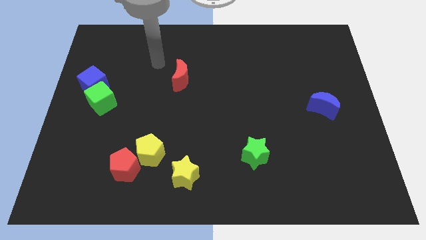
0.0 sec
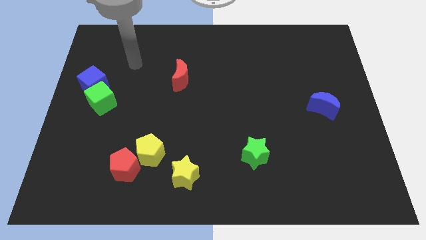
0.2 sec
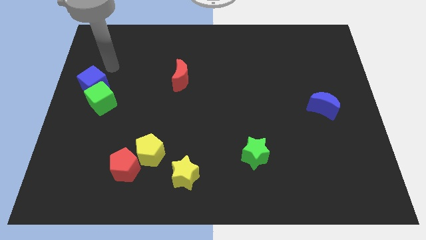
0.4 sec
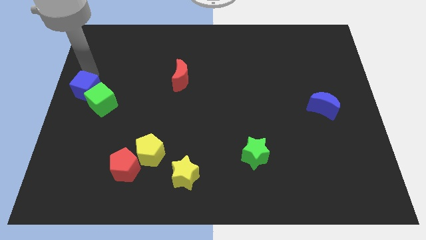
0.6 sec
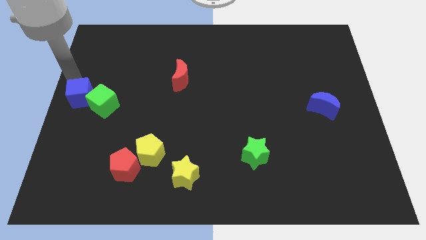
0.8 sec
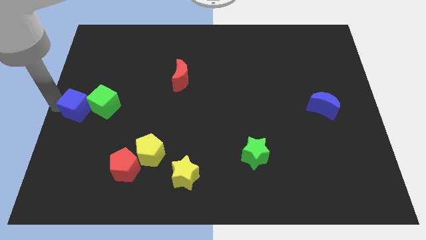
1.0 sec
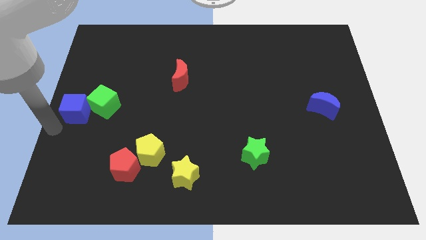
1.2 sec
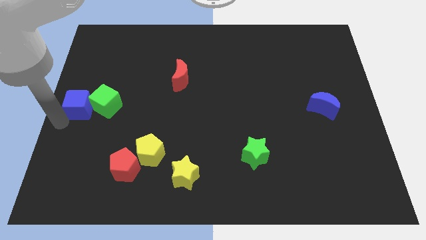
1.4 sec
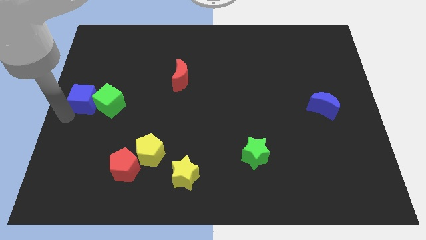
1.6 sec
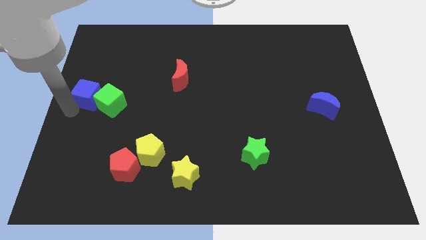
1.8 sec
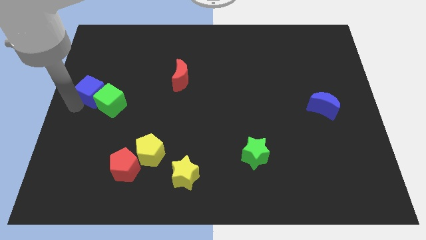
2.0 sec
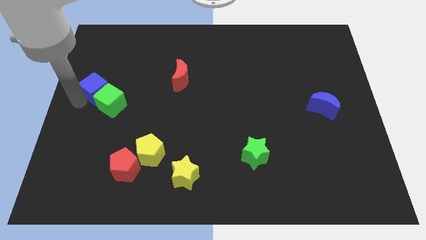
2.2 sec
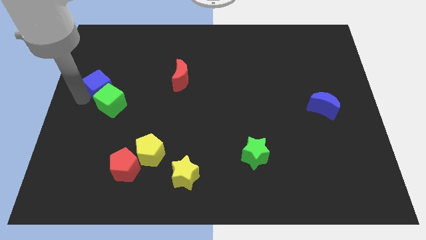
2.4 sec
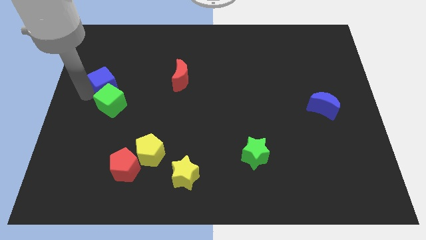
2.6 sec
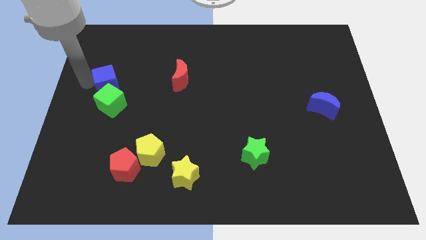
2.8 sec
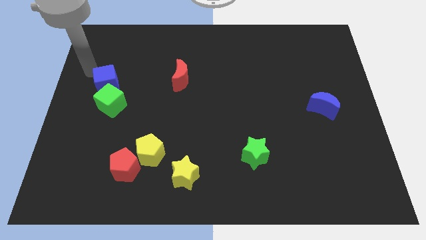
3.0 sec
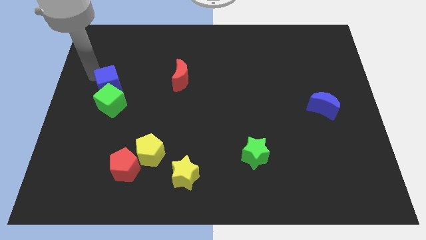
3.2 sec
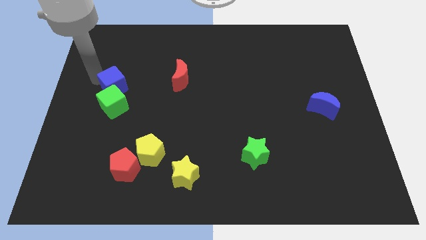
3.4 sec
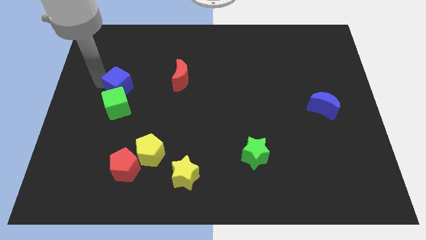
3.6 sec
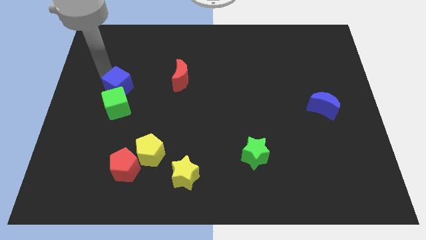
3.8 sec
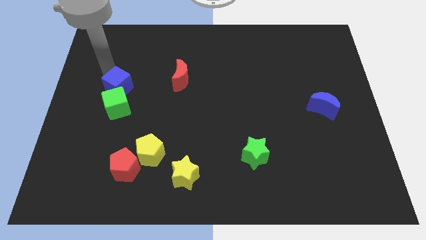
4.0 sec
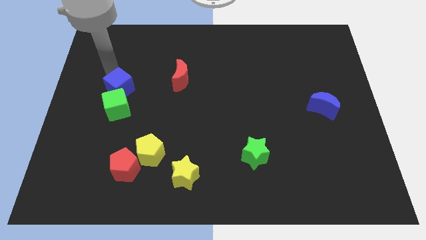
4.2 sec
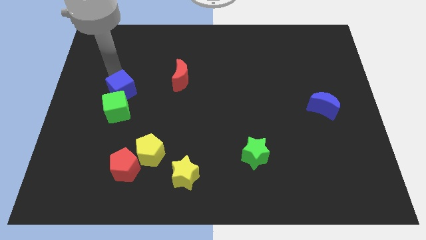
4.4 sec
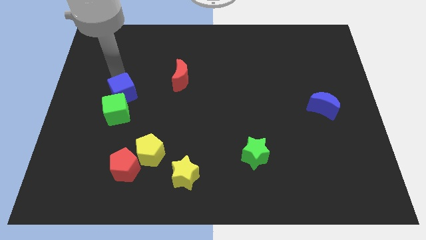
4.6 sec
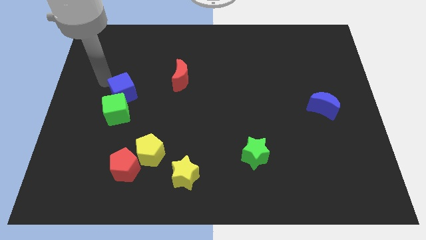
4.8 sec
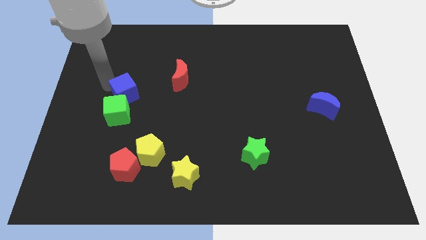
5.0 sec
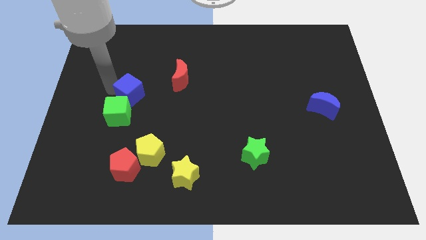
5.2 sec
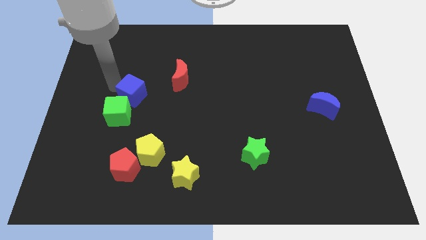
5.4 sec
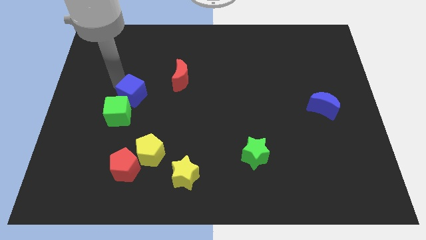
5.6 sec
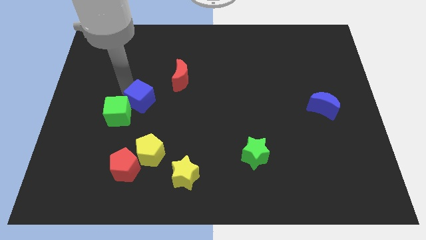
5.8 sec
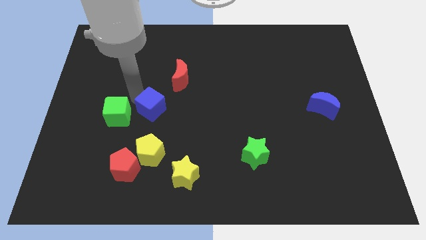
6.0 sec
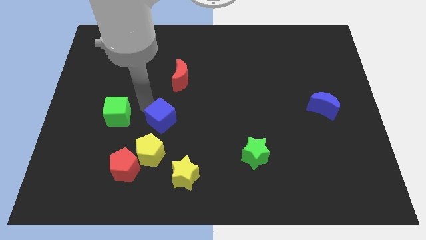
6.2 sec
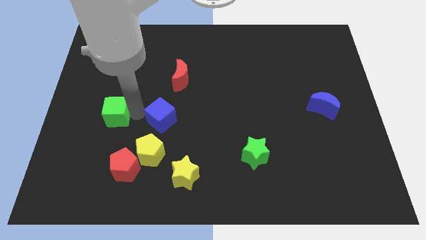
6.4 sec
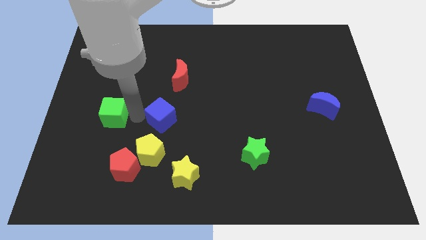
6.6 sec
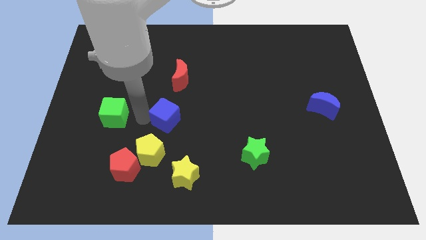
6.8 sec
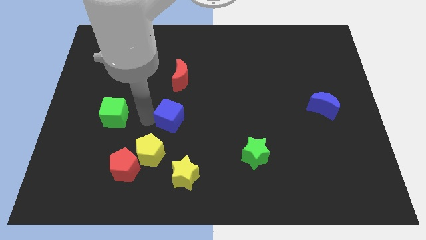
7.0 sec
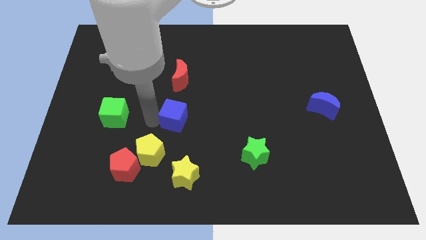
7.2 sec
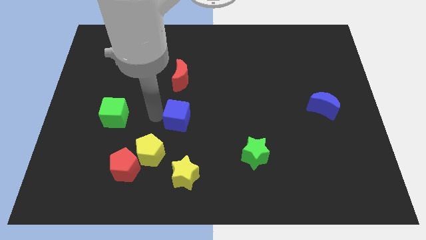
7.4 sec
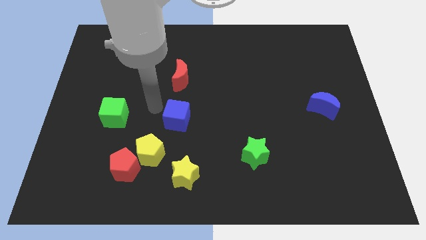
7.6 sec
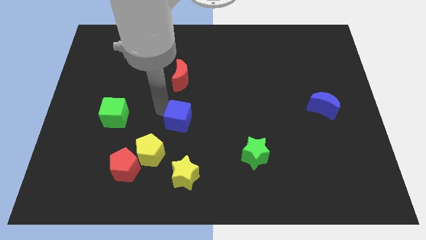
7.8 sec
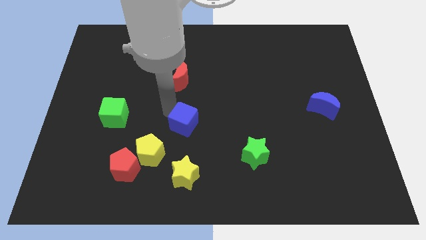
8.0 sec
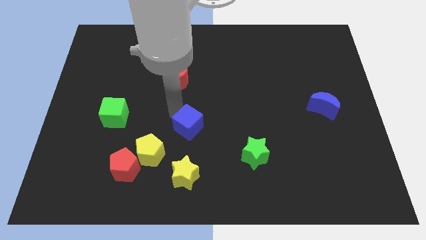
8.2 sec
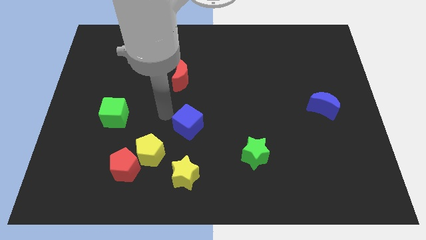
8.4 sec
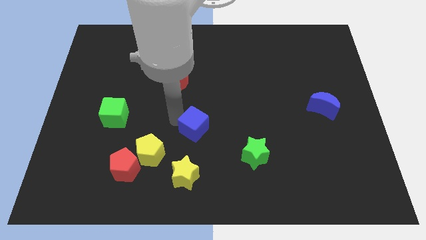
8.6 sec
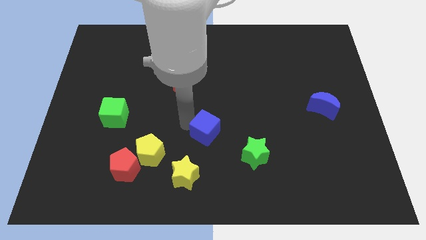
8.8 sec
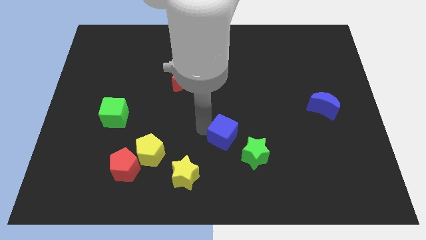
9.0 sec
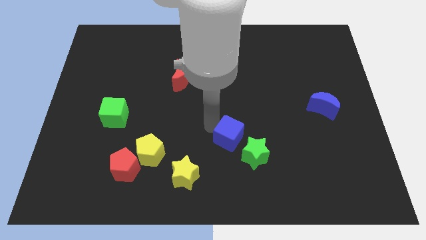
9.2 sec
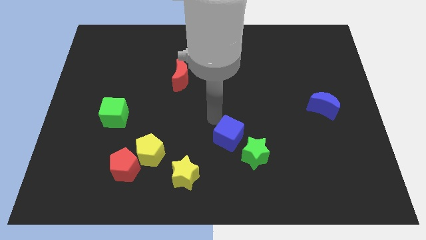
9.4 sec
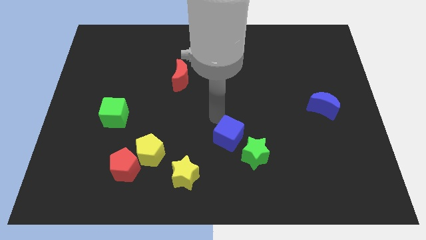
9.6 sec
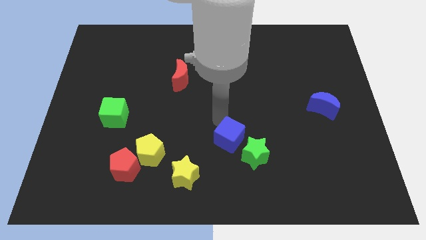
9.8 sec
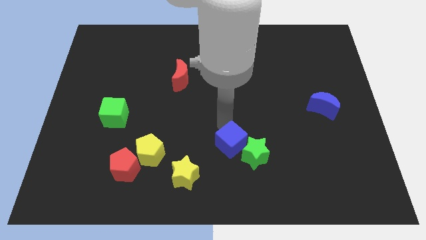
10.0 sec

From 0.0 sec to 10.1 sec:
push the blue cube towards the green star

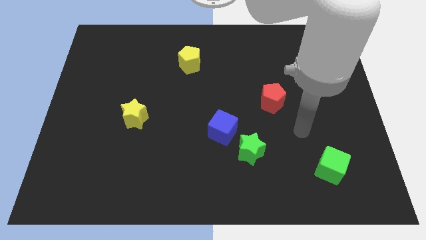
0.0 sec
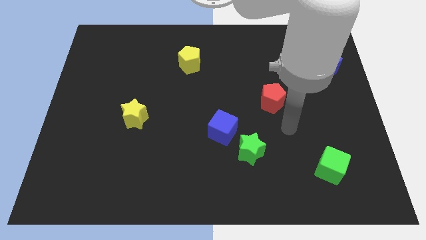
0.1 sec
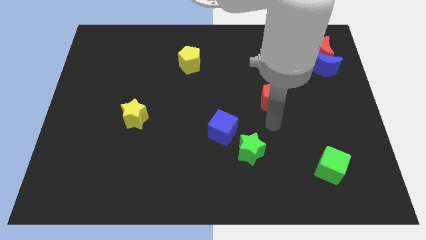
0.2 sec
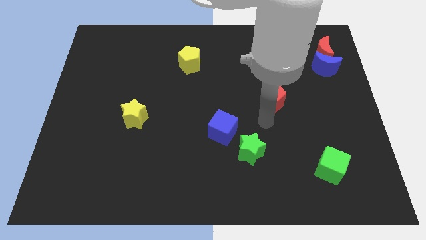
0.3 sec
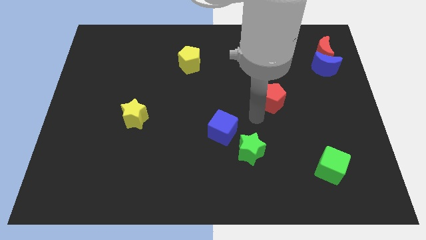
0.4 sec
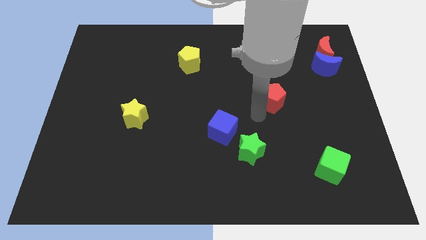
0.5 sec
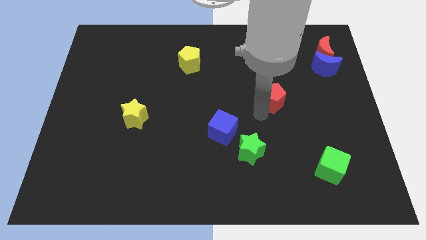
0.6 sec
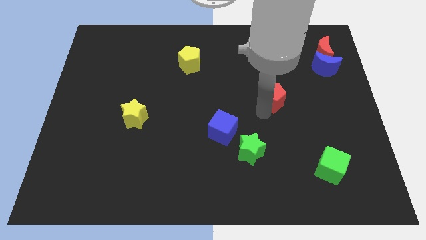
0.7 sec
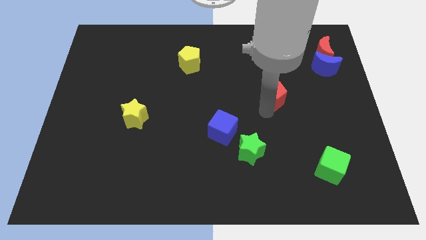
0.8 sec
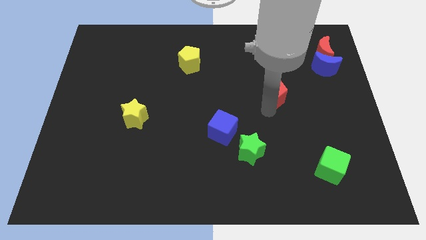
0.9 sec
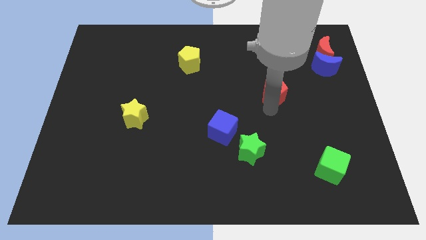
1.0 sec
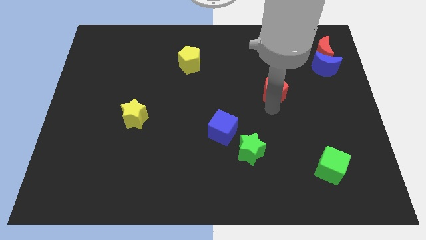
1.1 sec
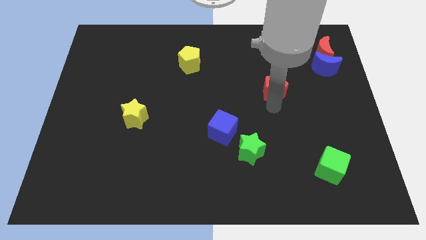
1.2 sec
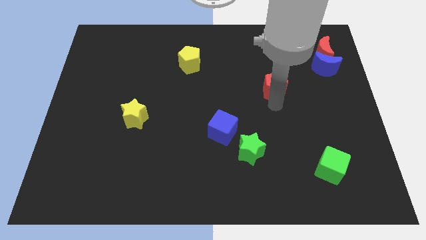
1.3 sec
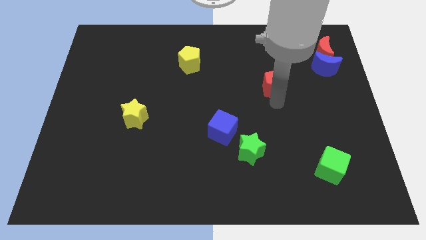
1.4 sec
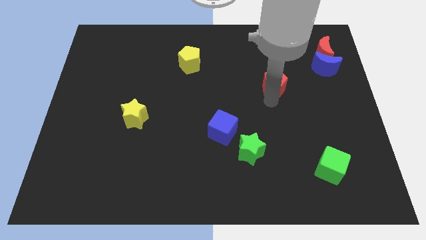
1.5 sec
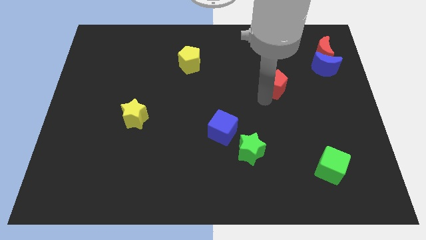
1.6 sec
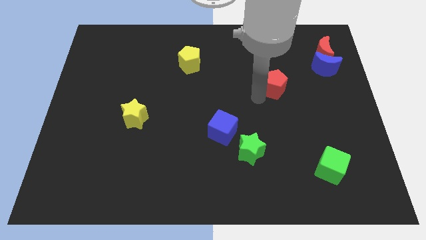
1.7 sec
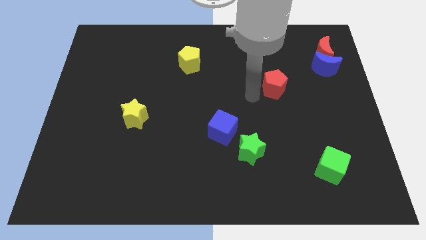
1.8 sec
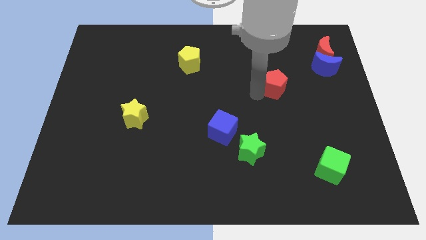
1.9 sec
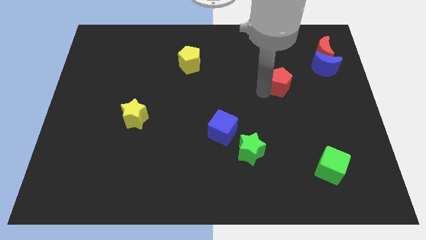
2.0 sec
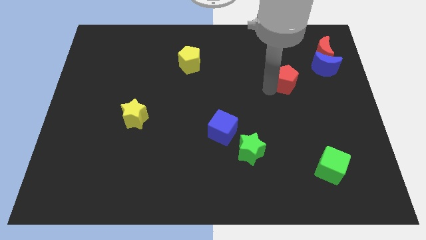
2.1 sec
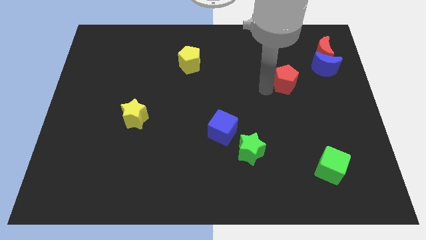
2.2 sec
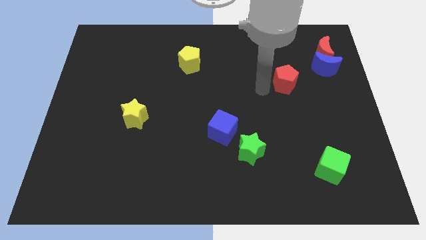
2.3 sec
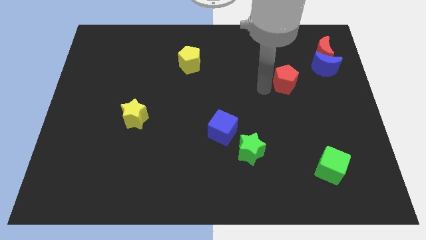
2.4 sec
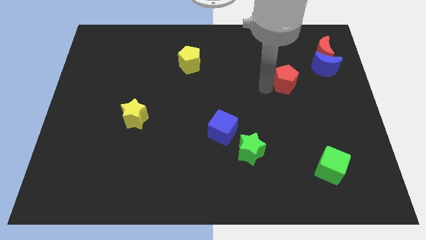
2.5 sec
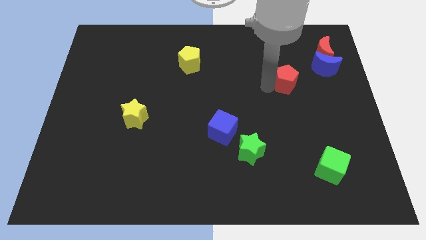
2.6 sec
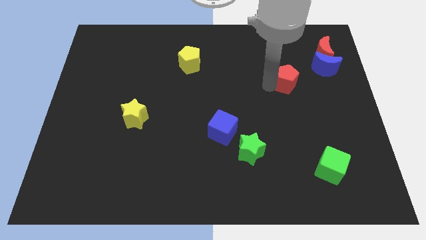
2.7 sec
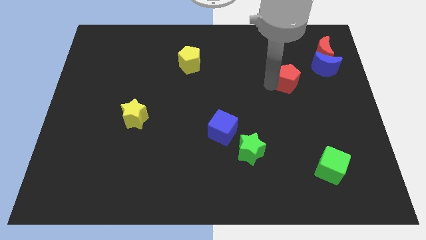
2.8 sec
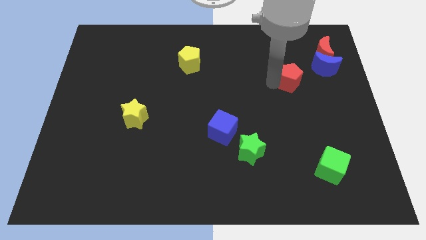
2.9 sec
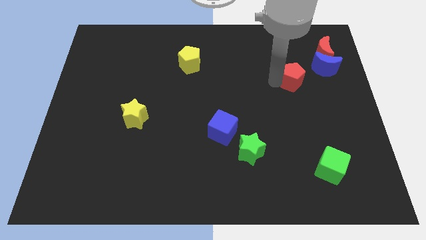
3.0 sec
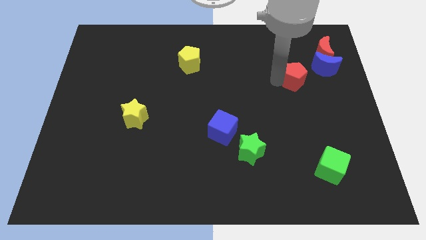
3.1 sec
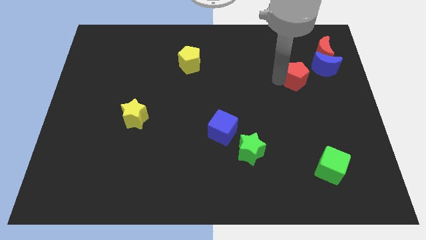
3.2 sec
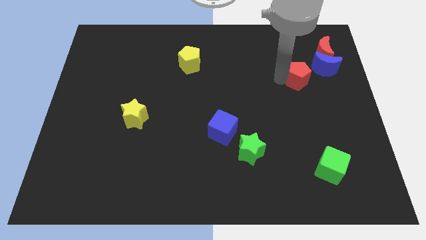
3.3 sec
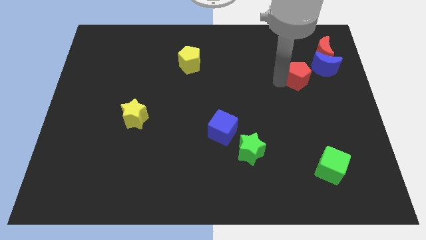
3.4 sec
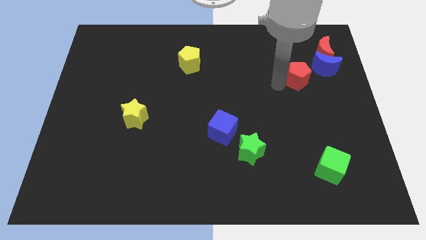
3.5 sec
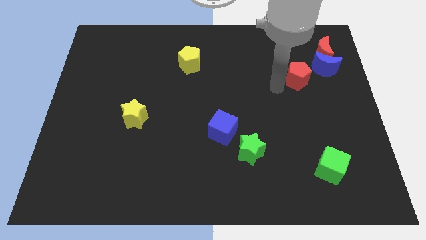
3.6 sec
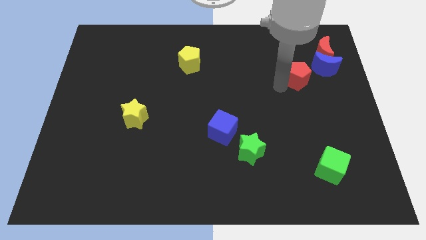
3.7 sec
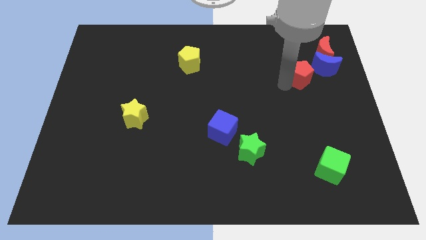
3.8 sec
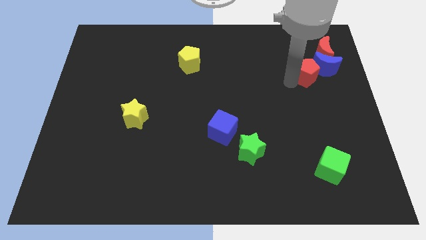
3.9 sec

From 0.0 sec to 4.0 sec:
slide the red pentagon next to the blue moon
